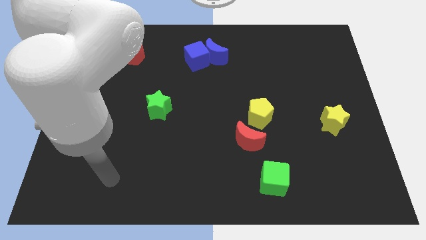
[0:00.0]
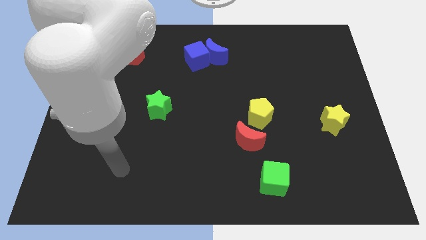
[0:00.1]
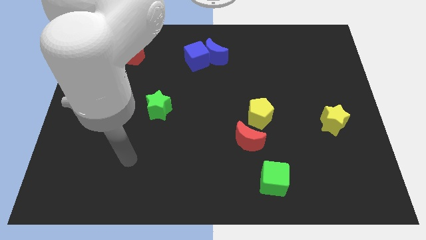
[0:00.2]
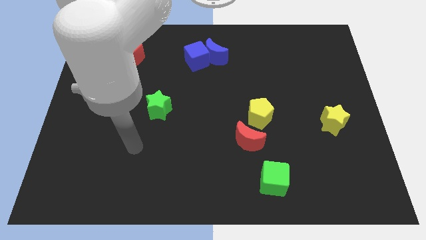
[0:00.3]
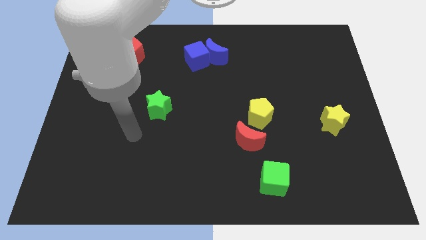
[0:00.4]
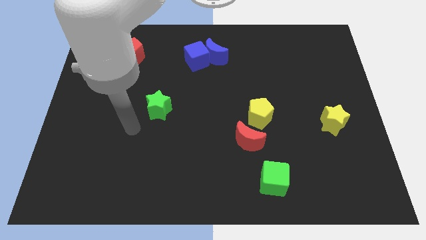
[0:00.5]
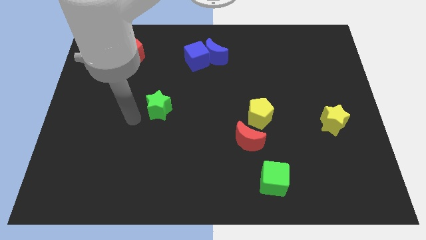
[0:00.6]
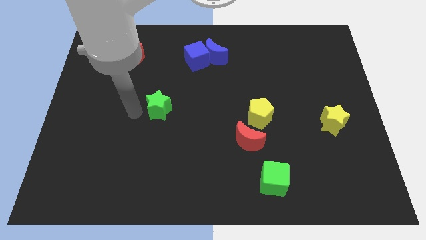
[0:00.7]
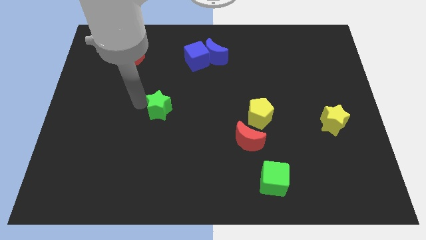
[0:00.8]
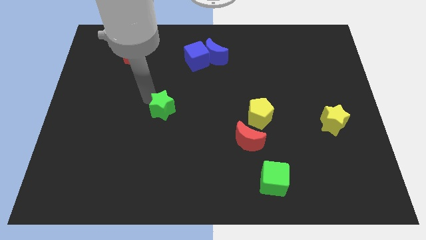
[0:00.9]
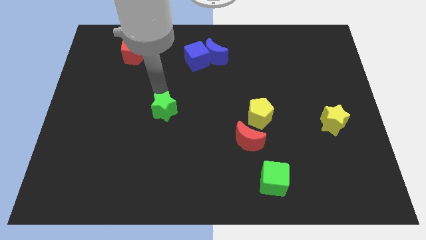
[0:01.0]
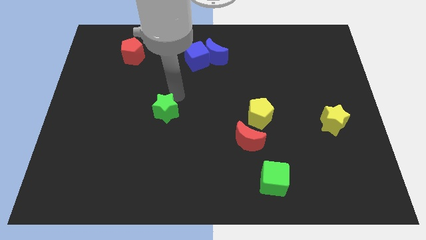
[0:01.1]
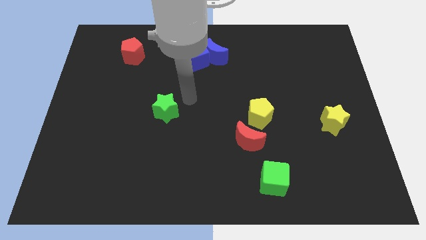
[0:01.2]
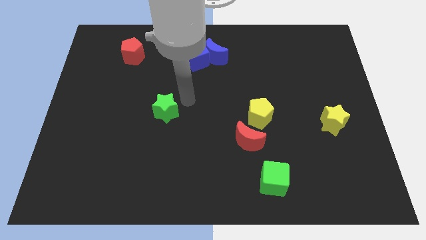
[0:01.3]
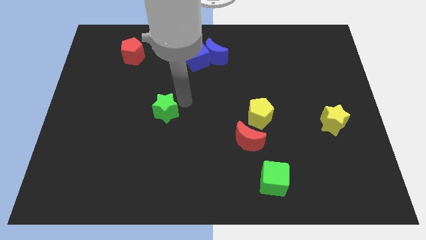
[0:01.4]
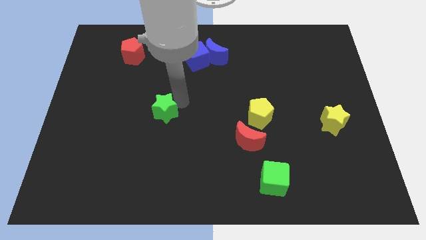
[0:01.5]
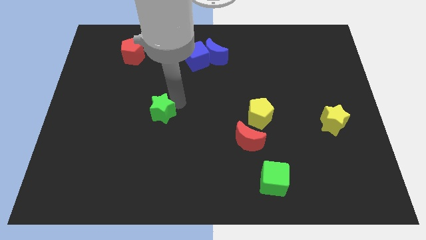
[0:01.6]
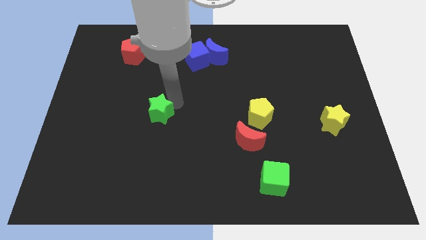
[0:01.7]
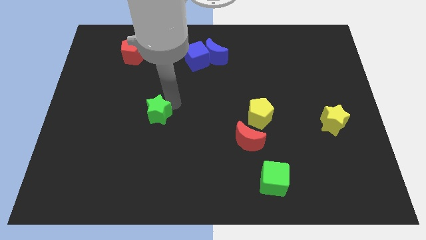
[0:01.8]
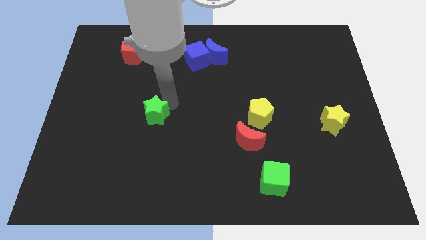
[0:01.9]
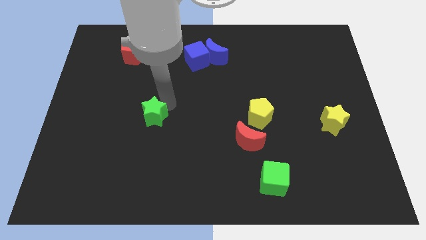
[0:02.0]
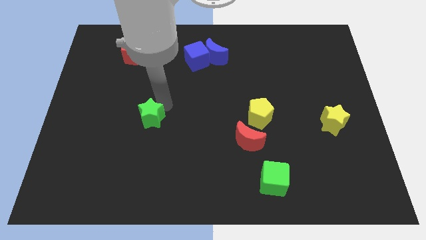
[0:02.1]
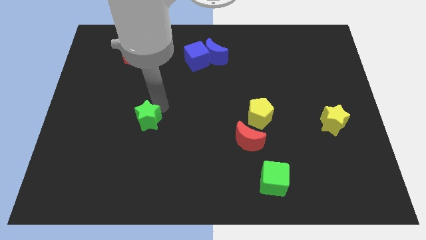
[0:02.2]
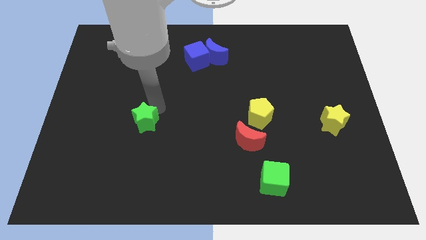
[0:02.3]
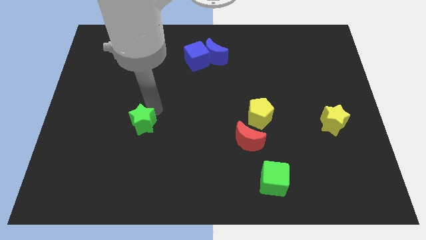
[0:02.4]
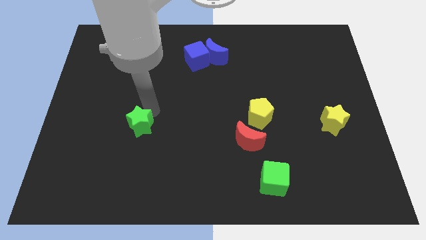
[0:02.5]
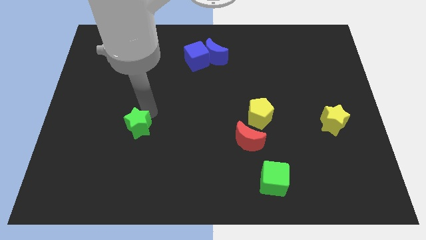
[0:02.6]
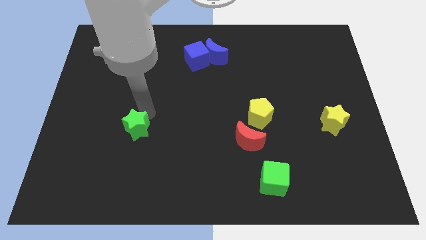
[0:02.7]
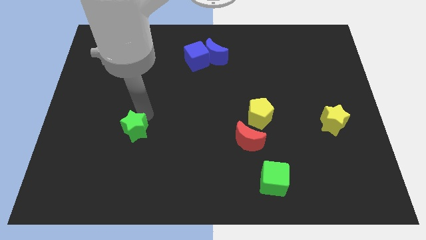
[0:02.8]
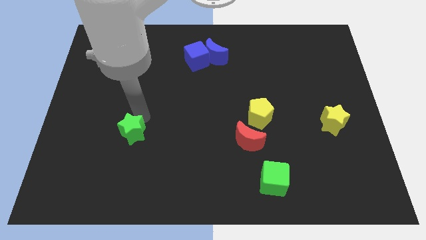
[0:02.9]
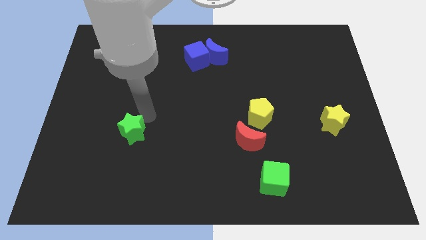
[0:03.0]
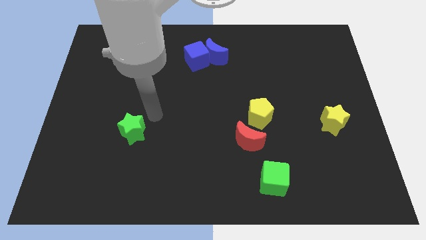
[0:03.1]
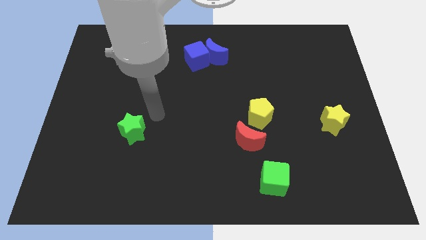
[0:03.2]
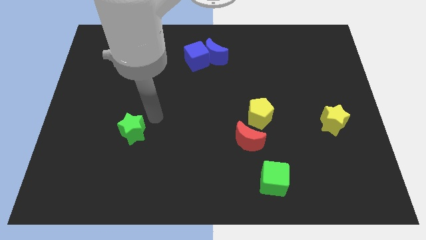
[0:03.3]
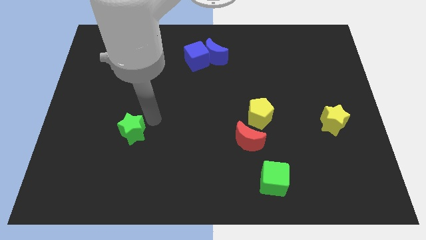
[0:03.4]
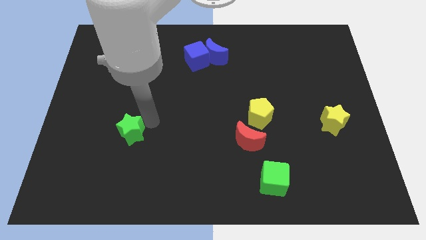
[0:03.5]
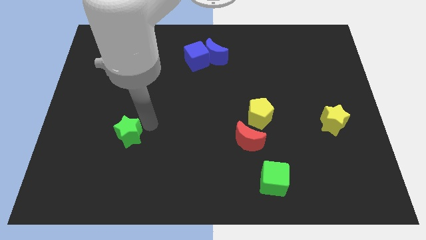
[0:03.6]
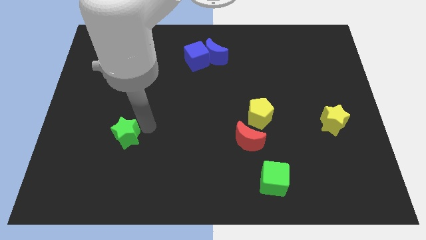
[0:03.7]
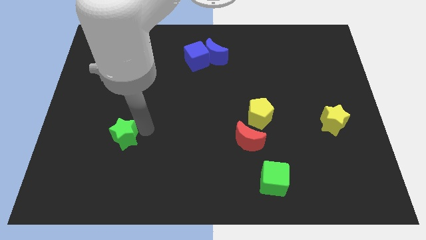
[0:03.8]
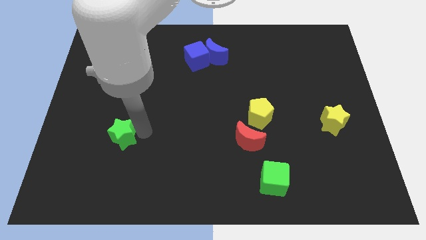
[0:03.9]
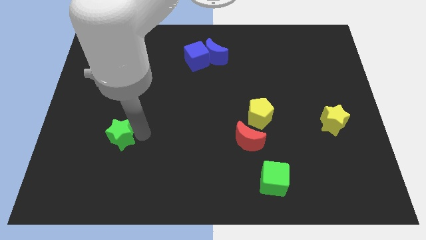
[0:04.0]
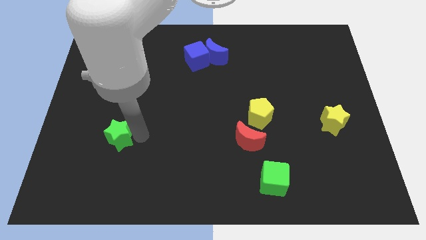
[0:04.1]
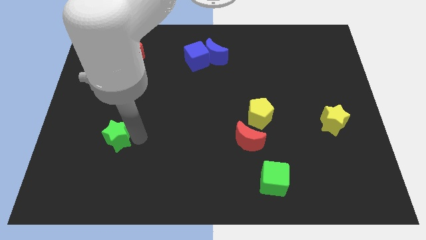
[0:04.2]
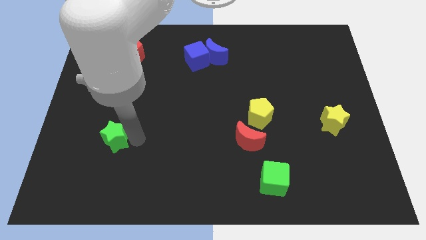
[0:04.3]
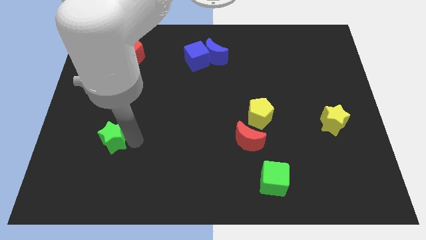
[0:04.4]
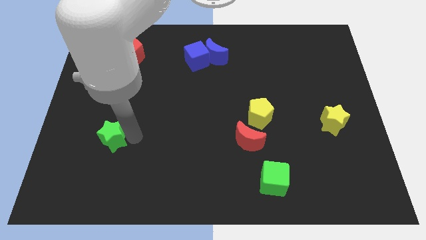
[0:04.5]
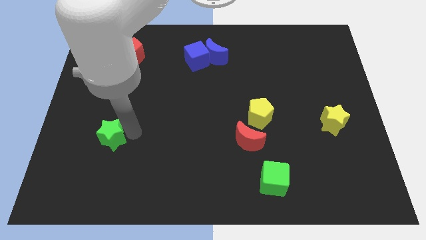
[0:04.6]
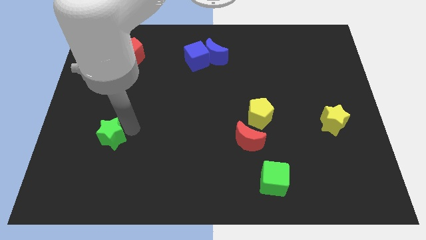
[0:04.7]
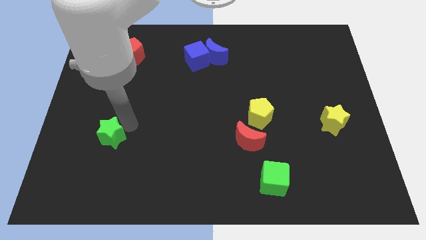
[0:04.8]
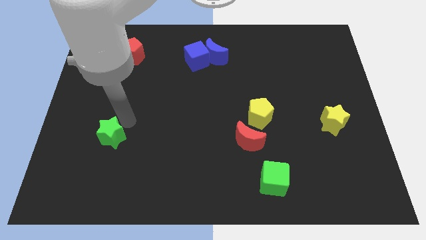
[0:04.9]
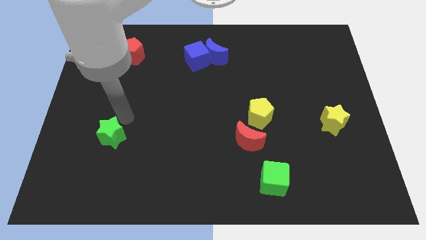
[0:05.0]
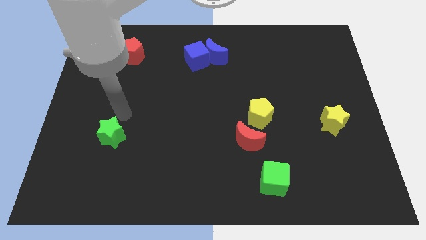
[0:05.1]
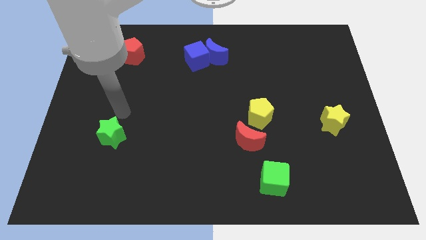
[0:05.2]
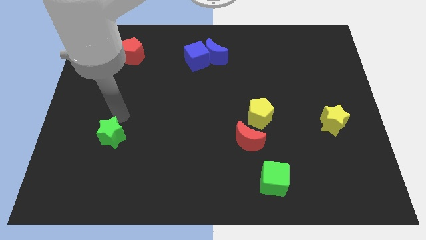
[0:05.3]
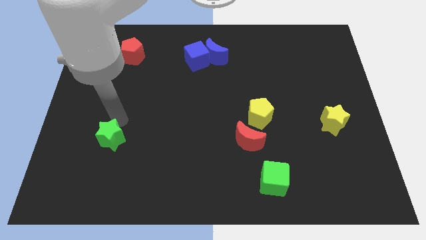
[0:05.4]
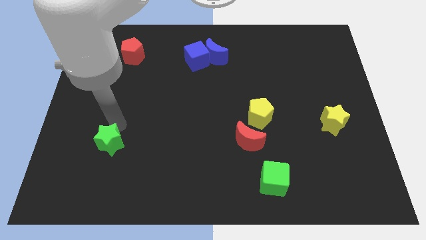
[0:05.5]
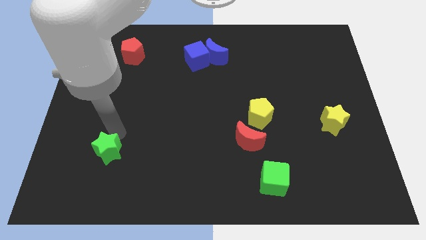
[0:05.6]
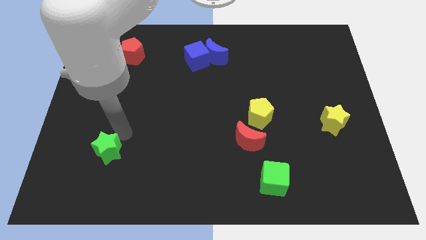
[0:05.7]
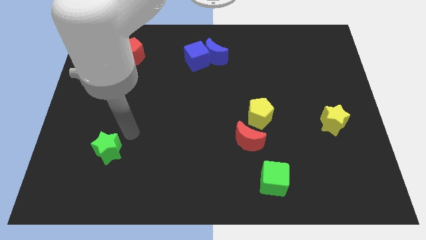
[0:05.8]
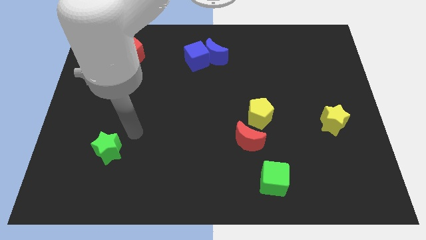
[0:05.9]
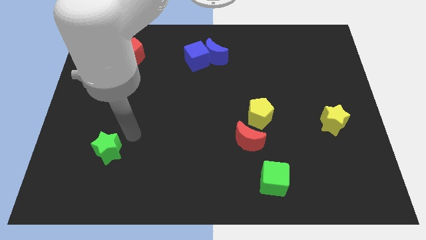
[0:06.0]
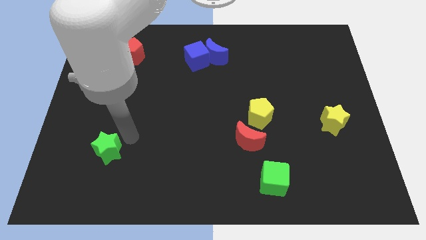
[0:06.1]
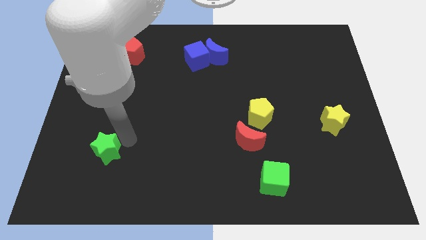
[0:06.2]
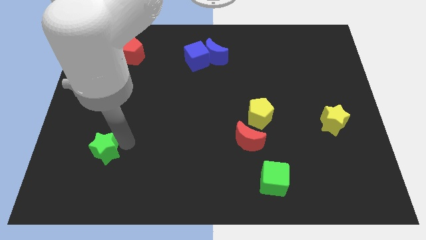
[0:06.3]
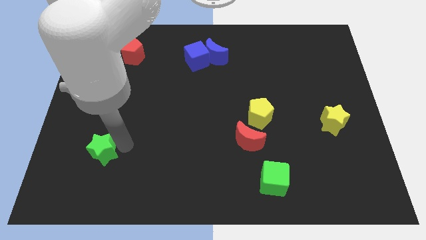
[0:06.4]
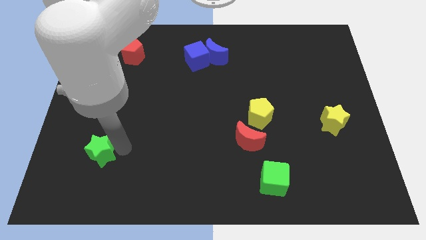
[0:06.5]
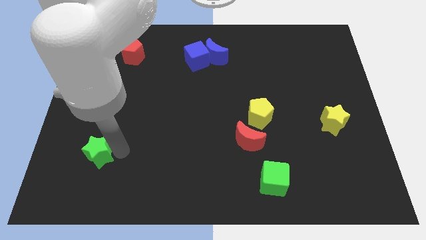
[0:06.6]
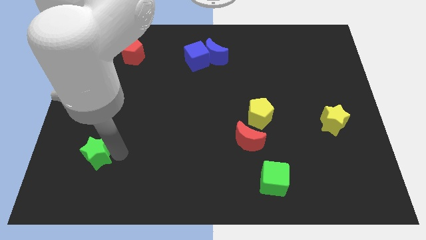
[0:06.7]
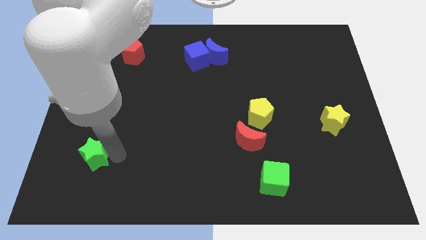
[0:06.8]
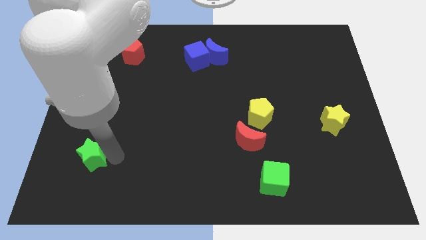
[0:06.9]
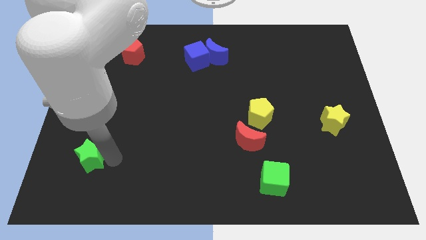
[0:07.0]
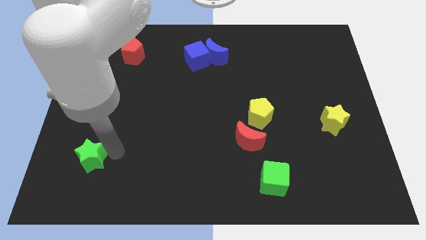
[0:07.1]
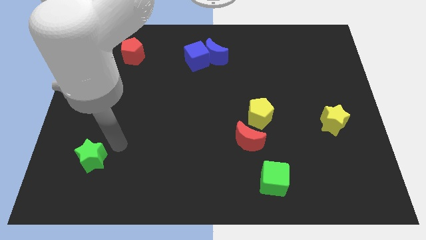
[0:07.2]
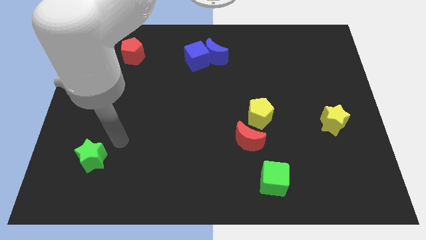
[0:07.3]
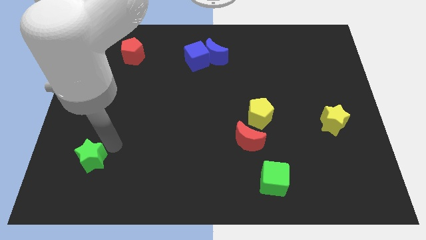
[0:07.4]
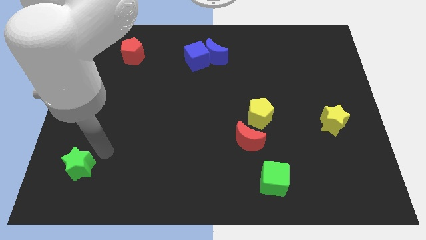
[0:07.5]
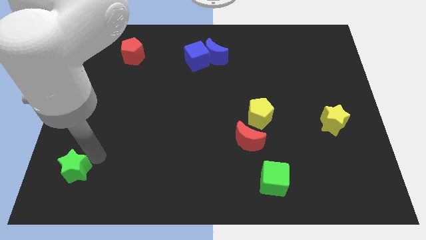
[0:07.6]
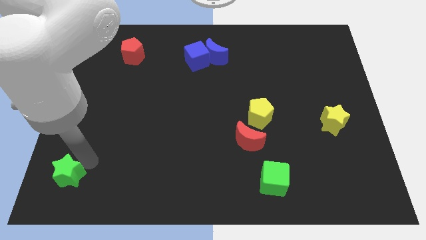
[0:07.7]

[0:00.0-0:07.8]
put the green star to the bottom left
